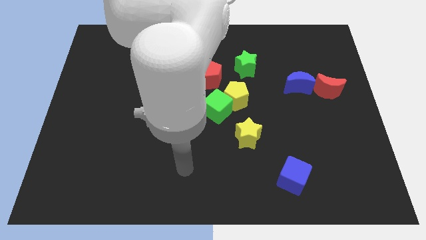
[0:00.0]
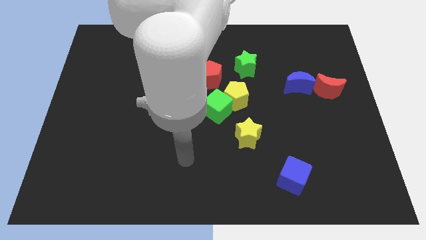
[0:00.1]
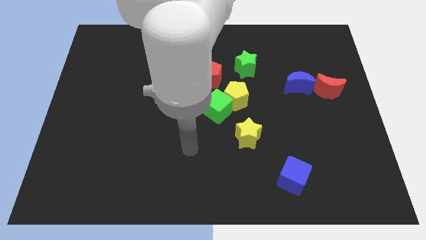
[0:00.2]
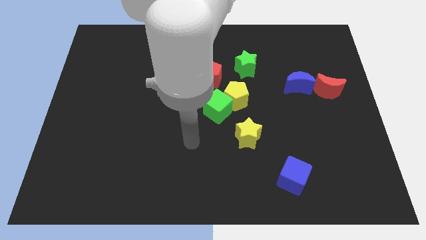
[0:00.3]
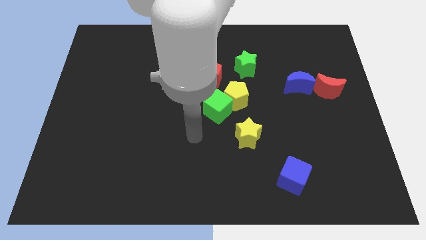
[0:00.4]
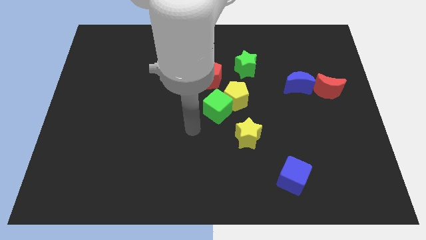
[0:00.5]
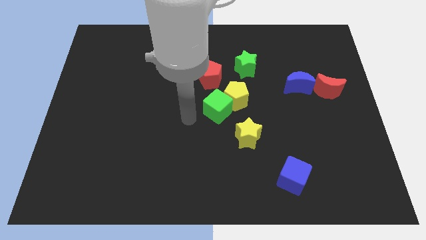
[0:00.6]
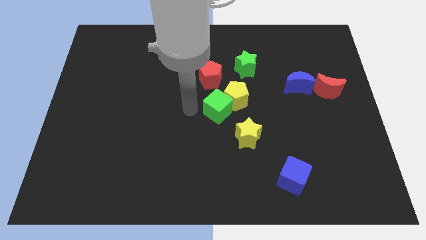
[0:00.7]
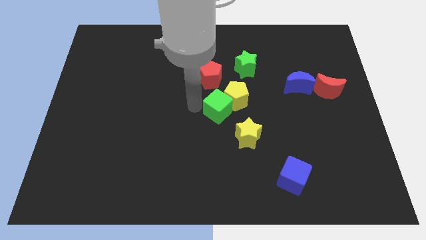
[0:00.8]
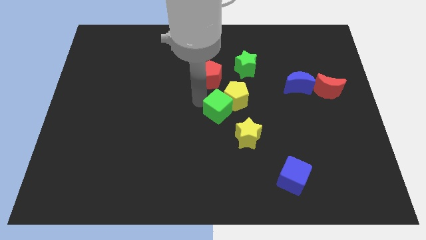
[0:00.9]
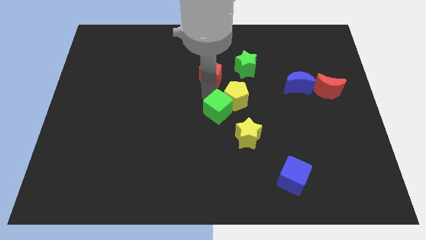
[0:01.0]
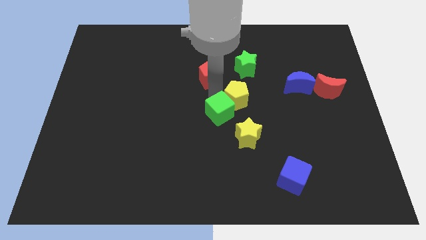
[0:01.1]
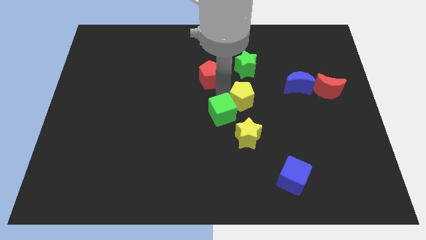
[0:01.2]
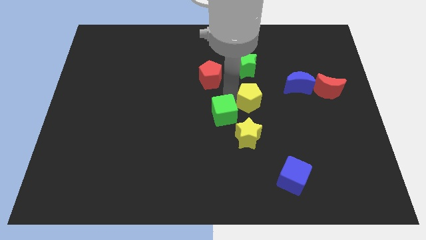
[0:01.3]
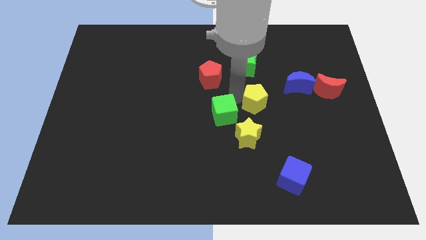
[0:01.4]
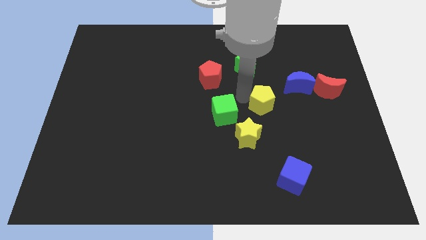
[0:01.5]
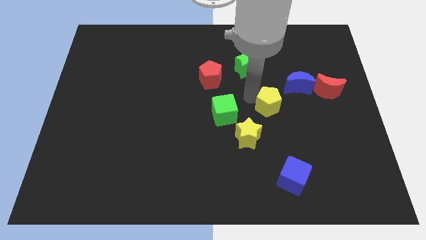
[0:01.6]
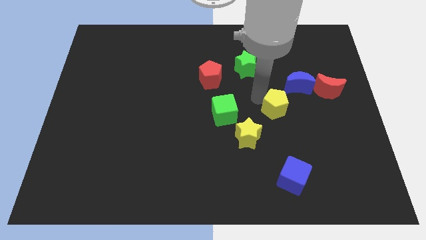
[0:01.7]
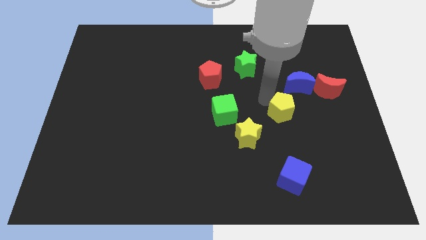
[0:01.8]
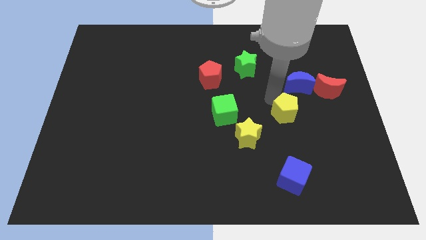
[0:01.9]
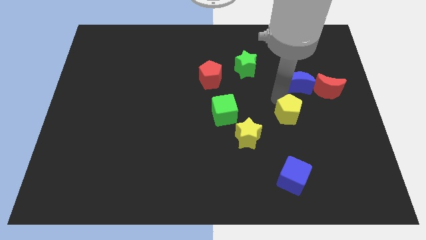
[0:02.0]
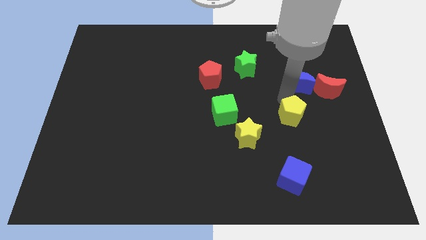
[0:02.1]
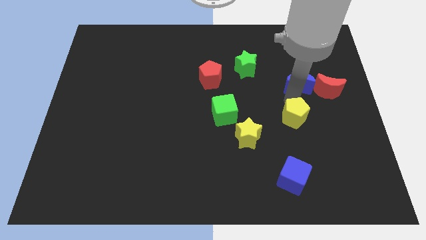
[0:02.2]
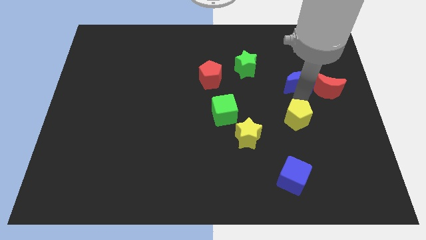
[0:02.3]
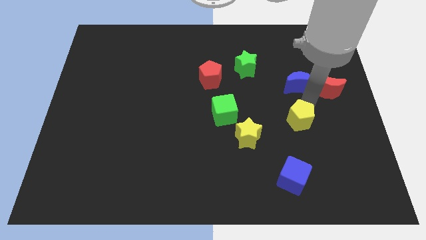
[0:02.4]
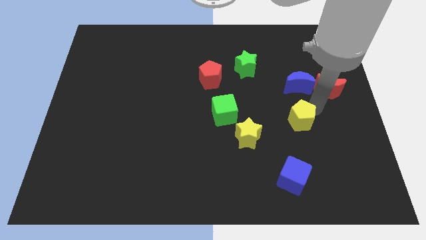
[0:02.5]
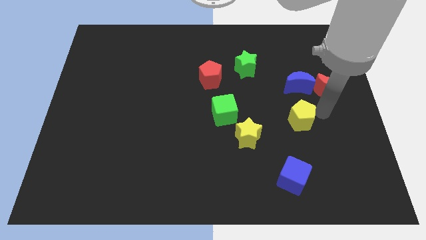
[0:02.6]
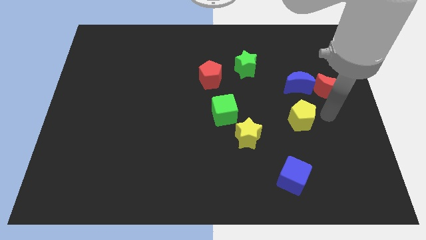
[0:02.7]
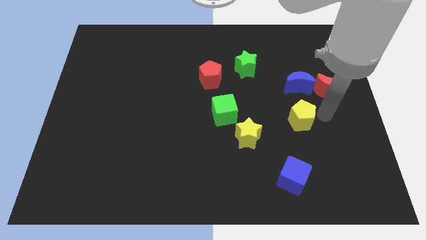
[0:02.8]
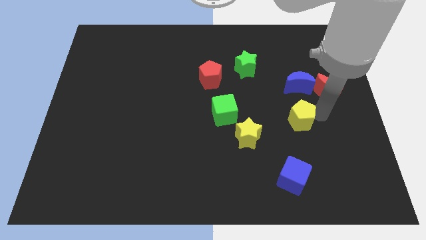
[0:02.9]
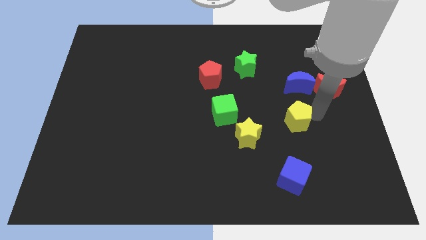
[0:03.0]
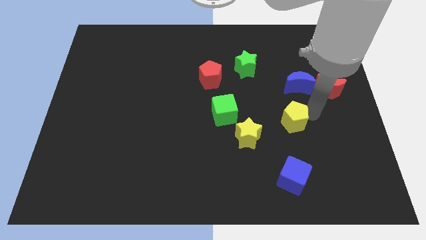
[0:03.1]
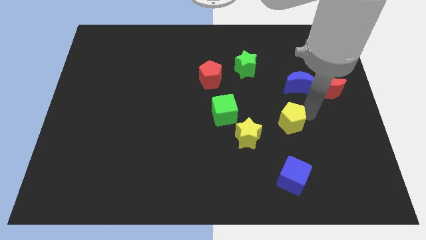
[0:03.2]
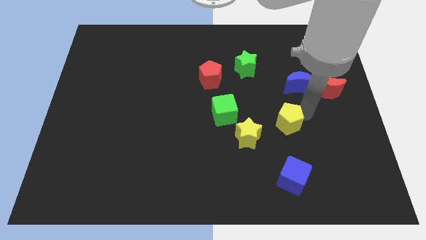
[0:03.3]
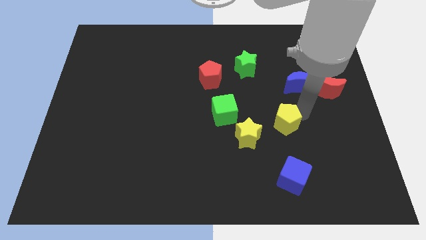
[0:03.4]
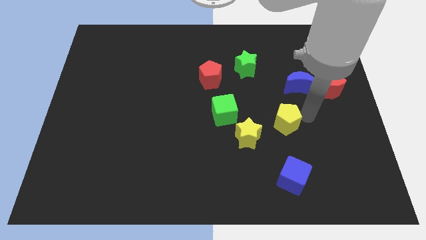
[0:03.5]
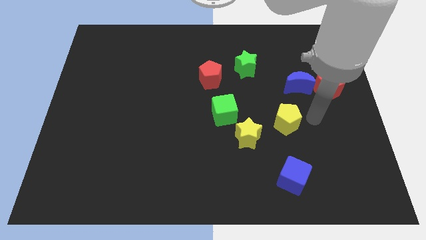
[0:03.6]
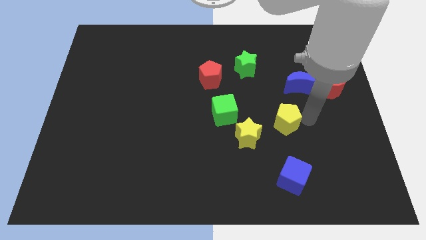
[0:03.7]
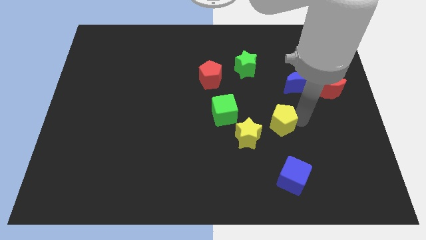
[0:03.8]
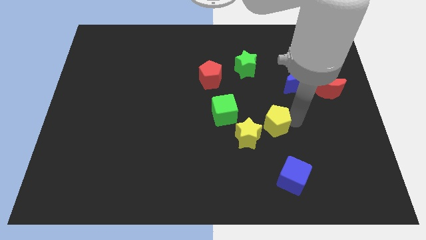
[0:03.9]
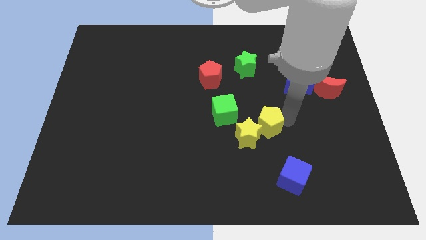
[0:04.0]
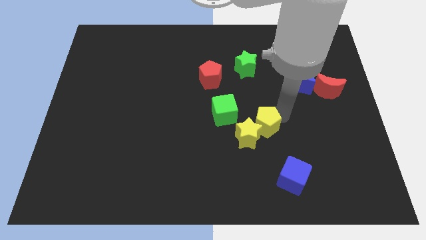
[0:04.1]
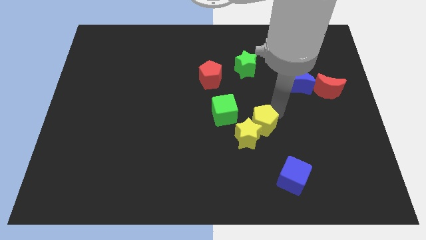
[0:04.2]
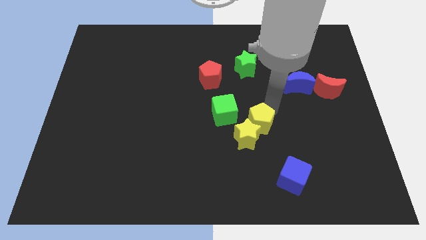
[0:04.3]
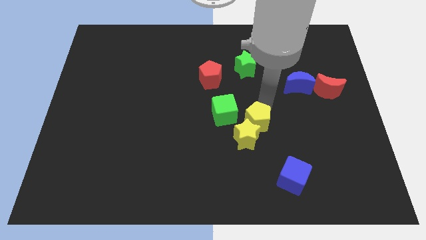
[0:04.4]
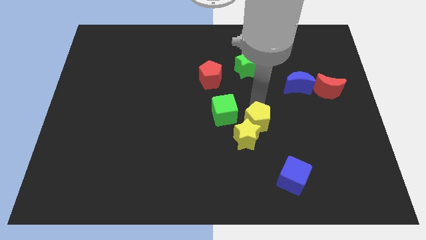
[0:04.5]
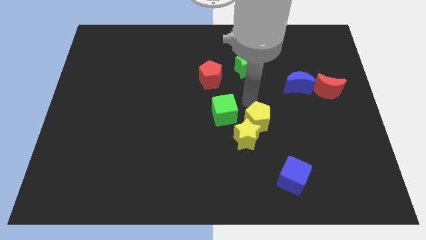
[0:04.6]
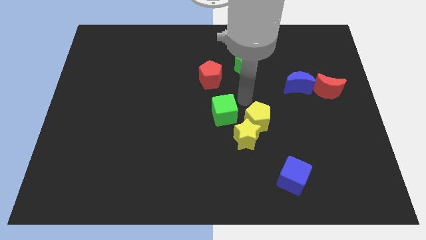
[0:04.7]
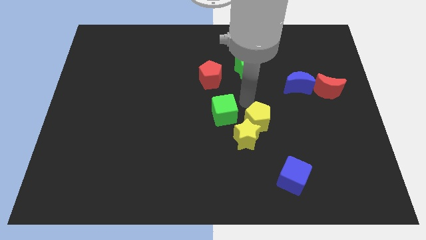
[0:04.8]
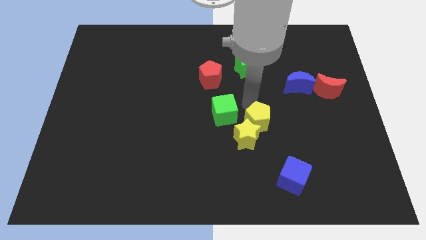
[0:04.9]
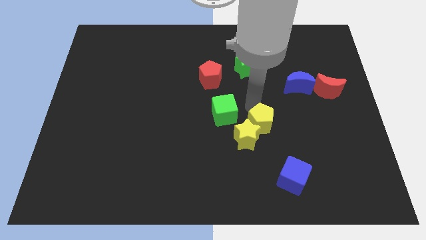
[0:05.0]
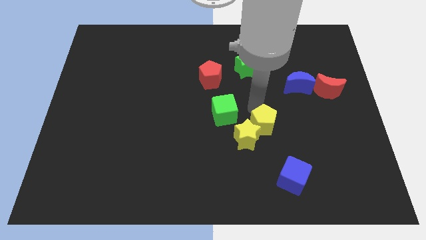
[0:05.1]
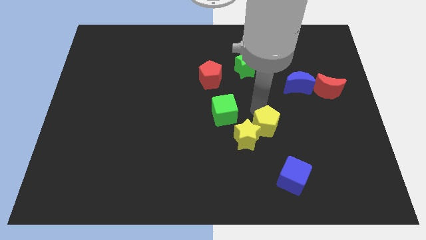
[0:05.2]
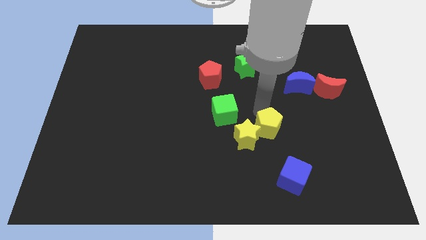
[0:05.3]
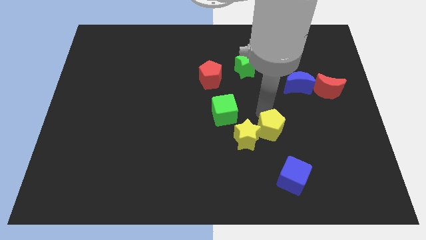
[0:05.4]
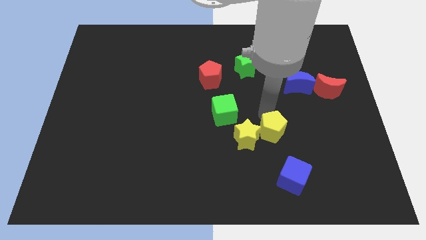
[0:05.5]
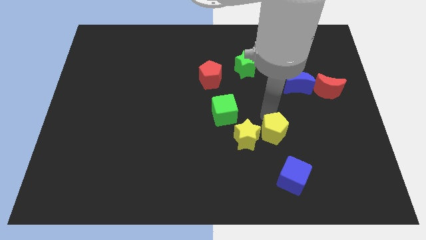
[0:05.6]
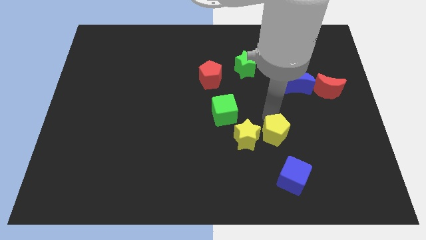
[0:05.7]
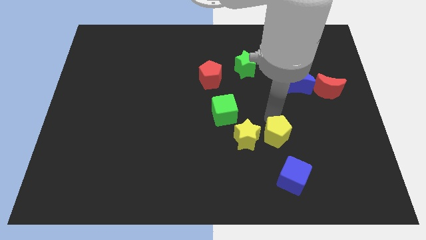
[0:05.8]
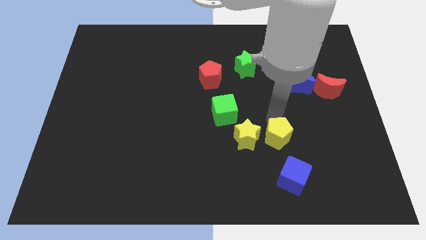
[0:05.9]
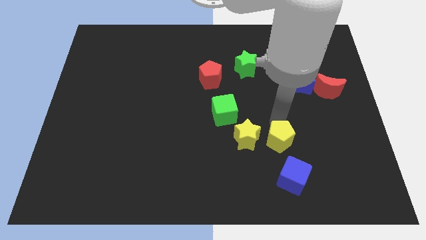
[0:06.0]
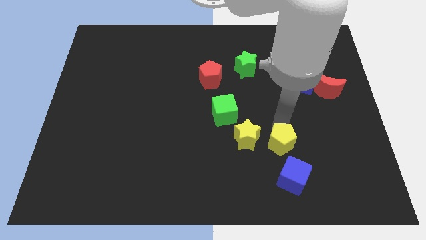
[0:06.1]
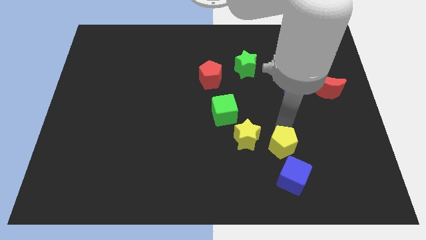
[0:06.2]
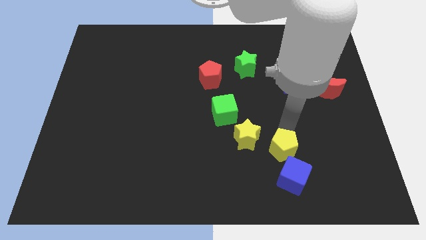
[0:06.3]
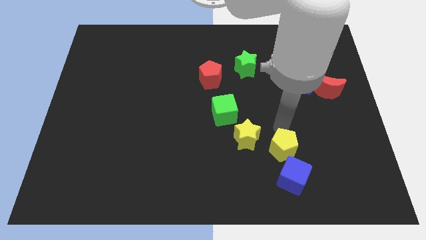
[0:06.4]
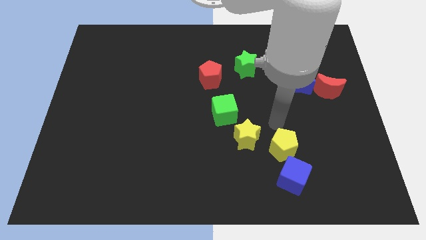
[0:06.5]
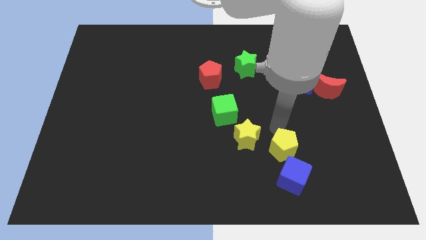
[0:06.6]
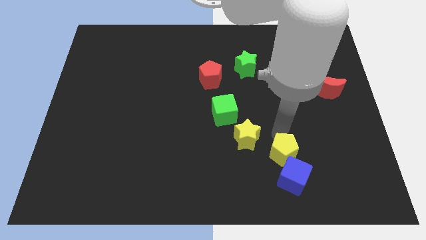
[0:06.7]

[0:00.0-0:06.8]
move the yellow pentagon next to the blue cube

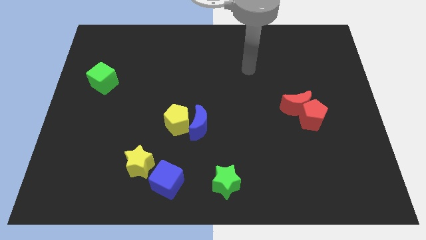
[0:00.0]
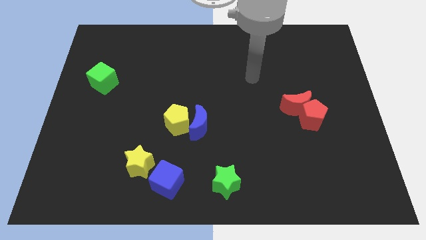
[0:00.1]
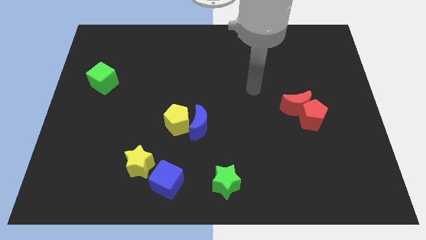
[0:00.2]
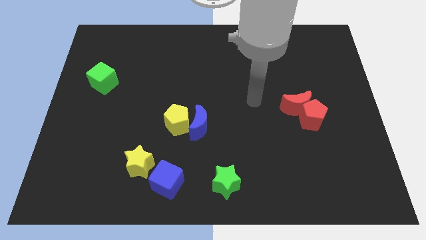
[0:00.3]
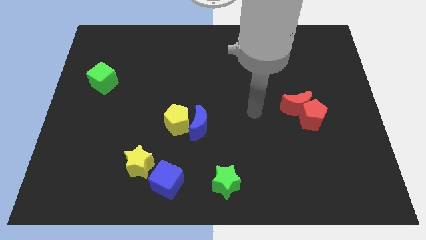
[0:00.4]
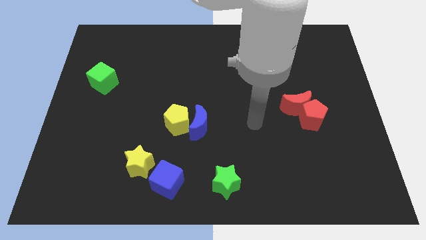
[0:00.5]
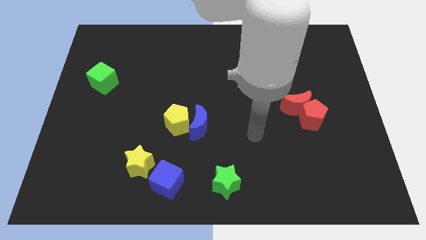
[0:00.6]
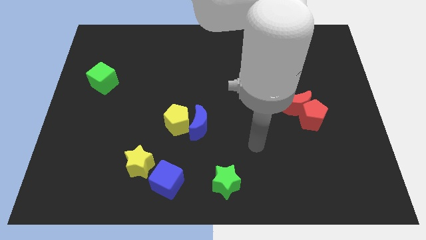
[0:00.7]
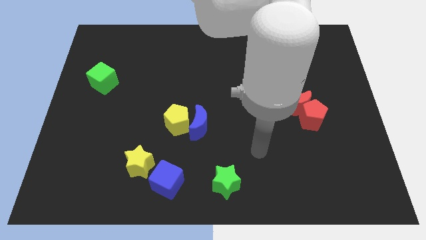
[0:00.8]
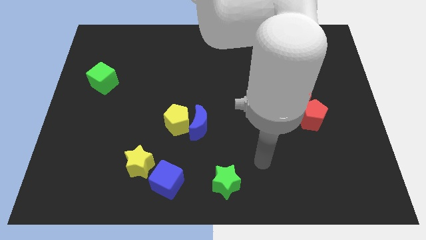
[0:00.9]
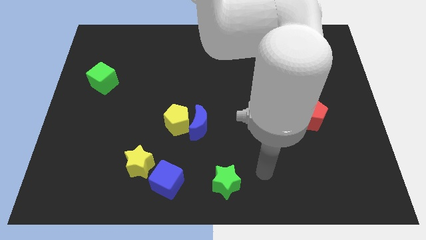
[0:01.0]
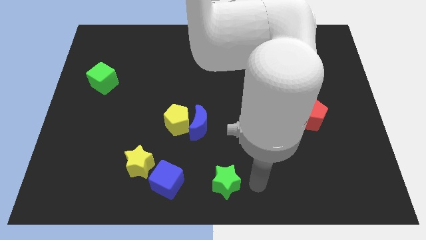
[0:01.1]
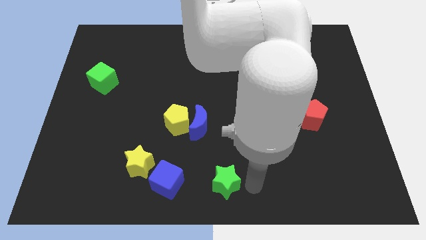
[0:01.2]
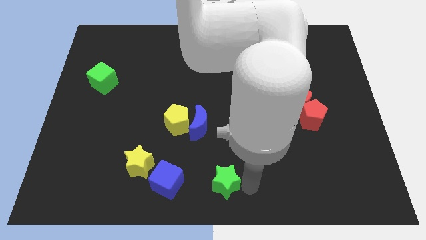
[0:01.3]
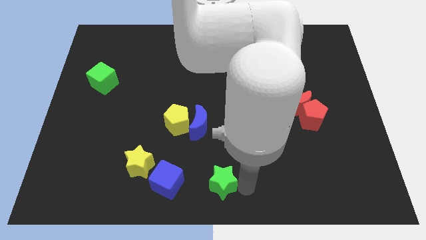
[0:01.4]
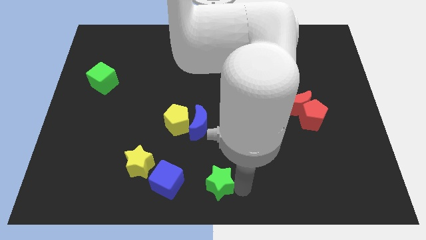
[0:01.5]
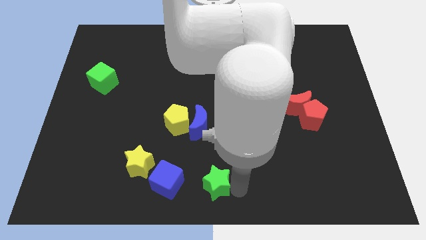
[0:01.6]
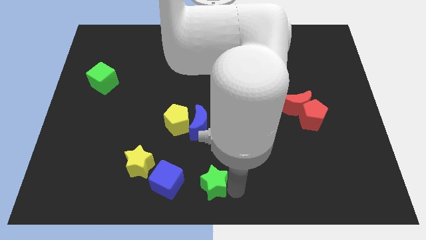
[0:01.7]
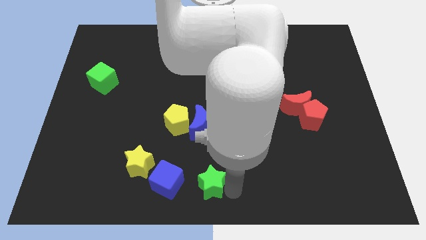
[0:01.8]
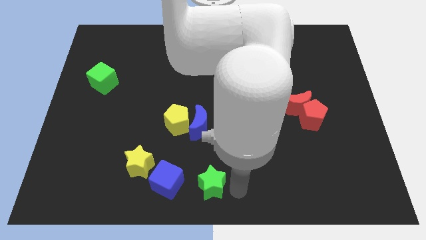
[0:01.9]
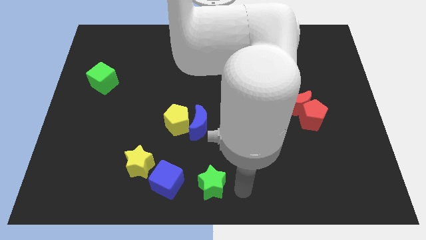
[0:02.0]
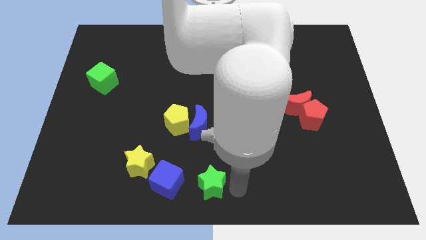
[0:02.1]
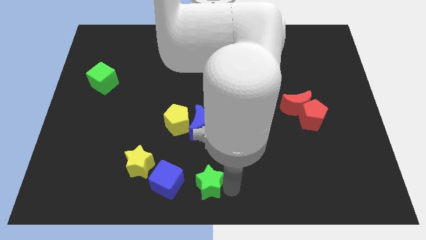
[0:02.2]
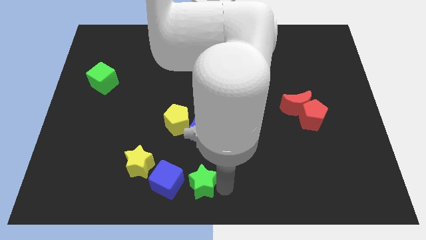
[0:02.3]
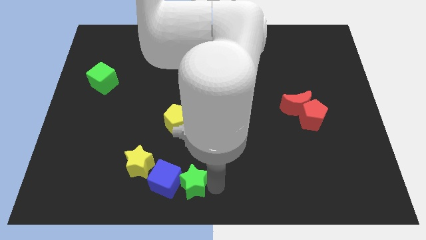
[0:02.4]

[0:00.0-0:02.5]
put the green star towards the blue cube
